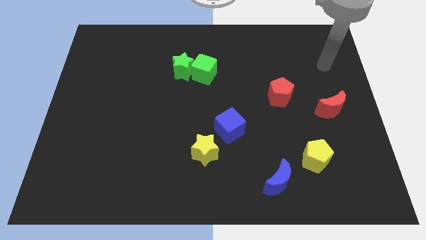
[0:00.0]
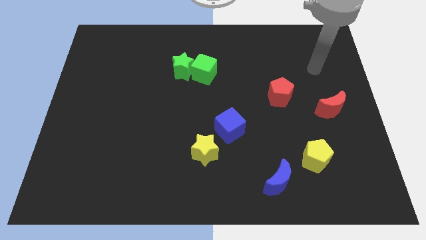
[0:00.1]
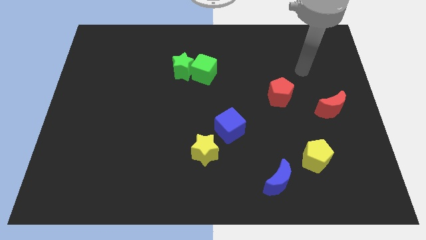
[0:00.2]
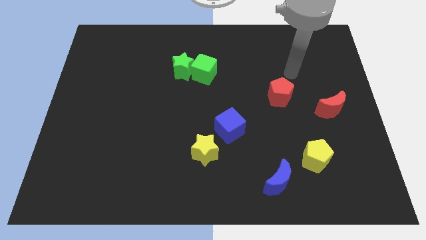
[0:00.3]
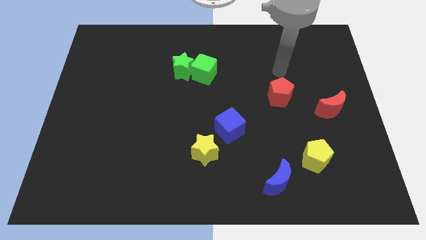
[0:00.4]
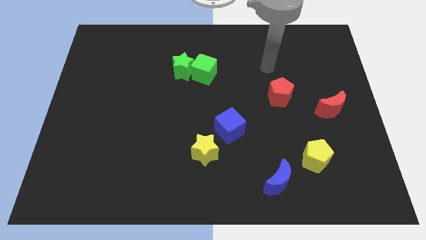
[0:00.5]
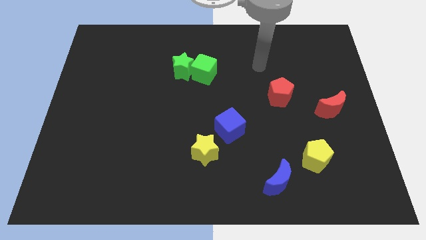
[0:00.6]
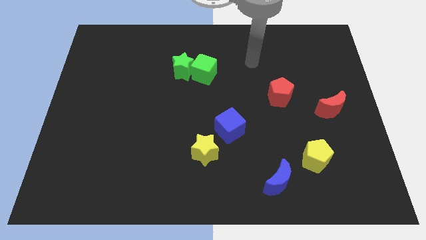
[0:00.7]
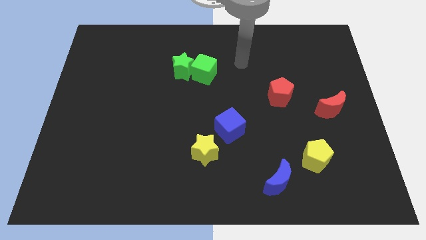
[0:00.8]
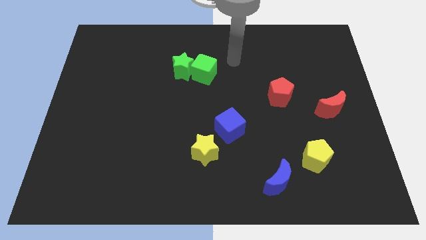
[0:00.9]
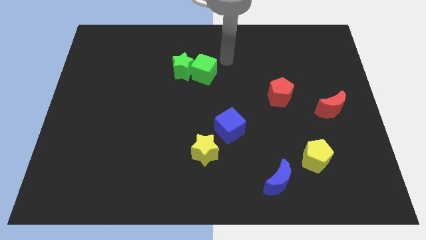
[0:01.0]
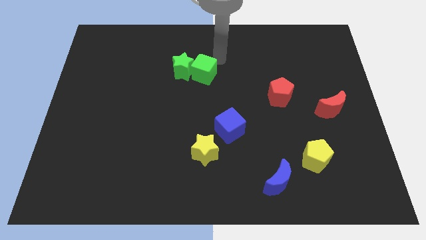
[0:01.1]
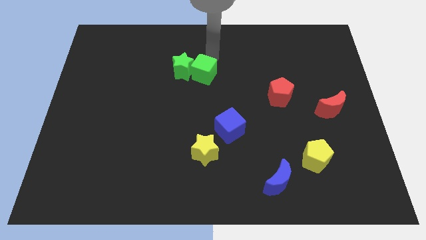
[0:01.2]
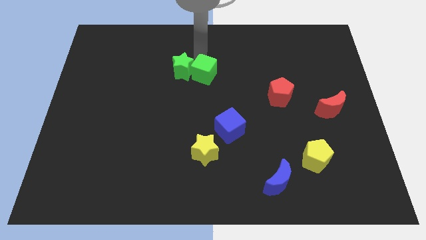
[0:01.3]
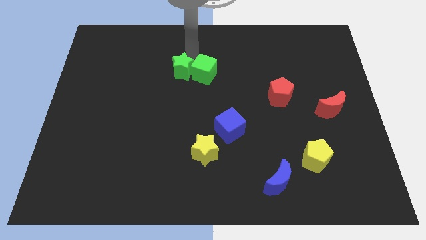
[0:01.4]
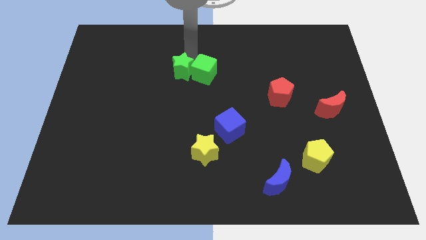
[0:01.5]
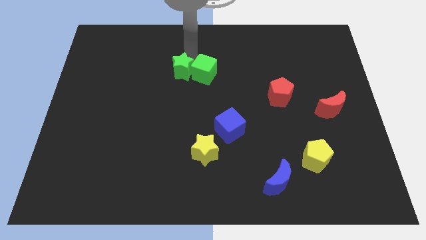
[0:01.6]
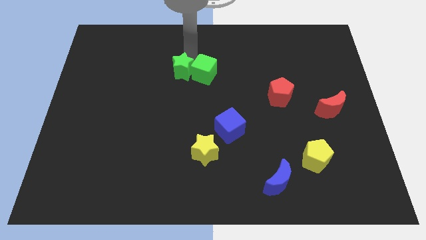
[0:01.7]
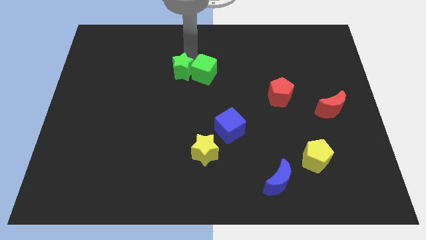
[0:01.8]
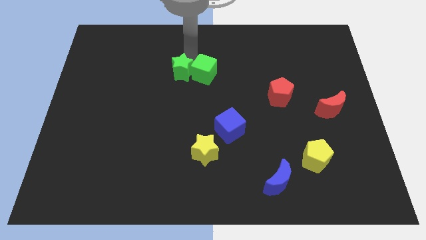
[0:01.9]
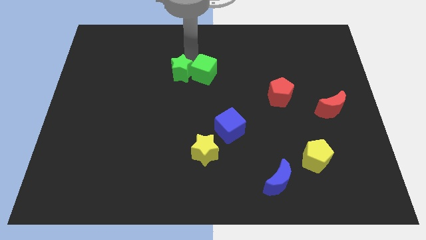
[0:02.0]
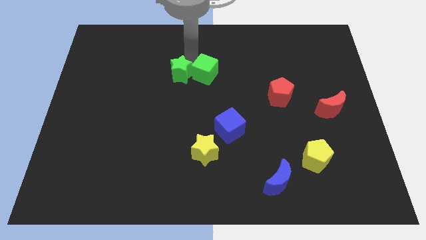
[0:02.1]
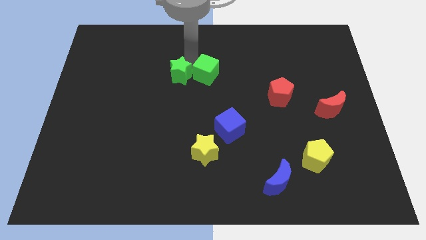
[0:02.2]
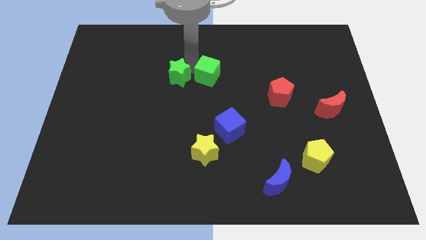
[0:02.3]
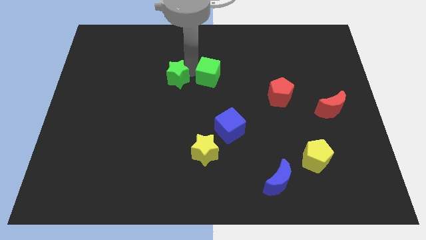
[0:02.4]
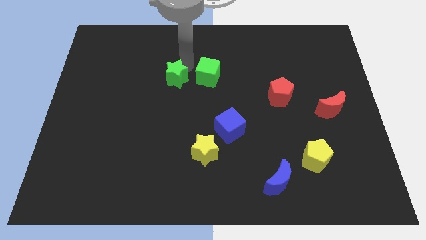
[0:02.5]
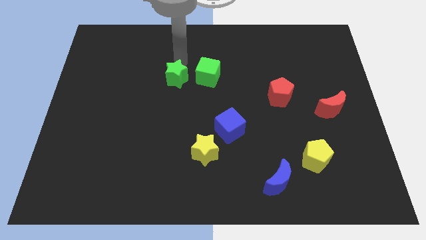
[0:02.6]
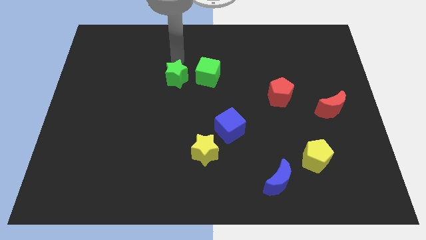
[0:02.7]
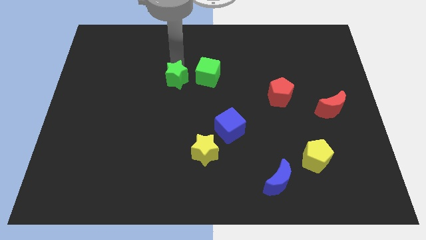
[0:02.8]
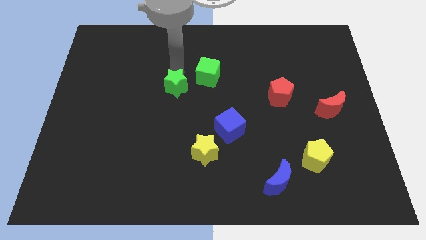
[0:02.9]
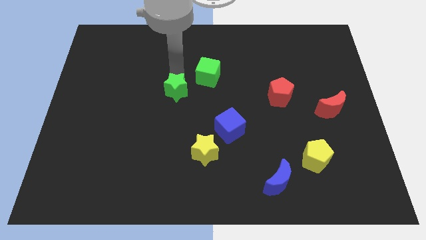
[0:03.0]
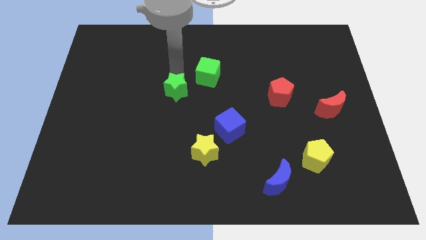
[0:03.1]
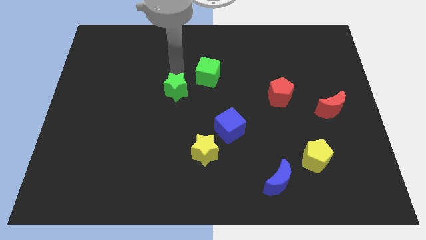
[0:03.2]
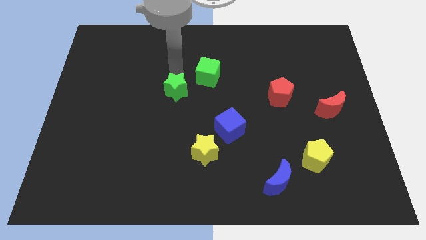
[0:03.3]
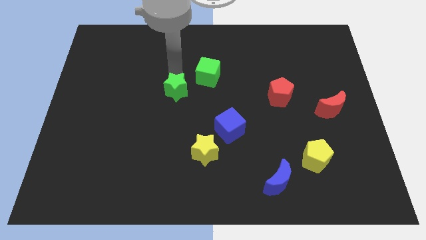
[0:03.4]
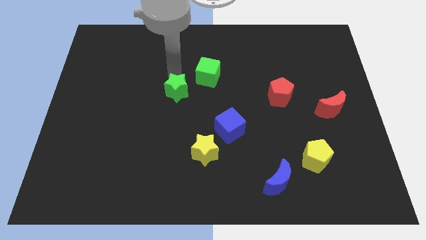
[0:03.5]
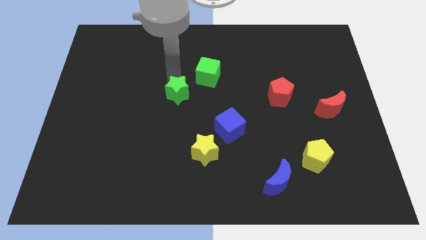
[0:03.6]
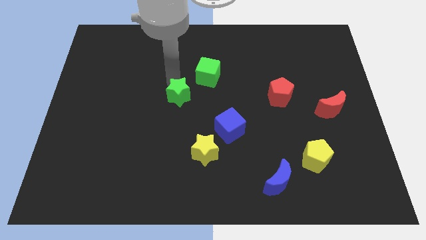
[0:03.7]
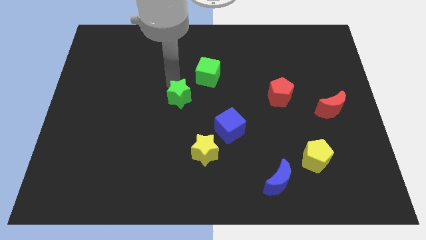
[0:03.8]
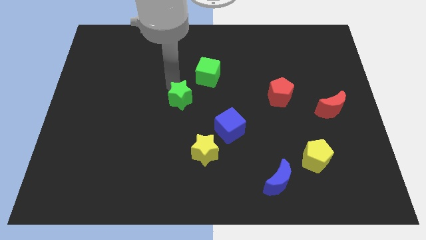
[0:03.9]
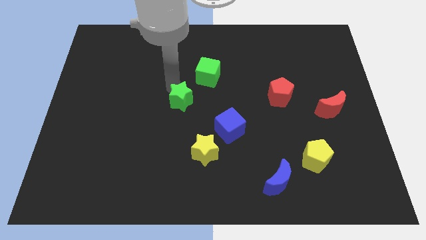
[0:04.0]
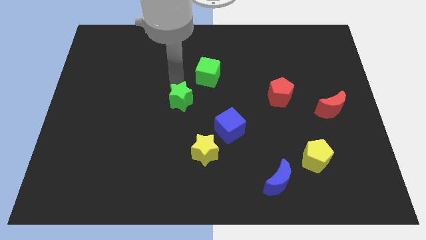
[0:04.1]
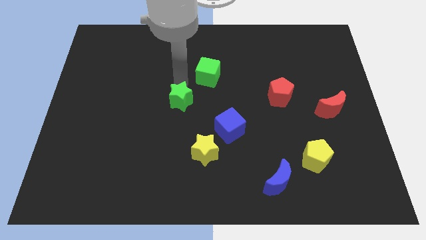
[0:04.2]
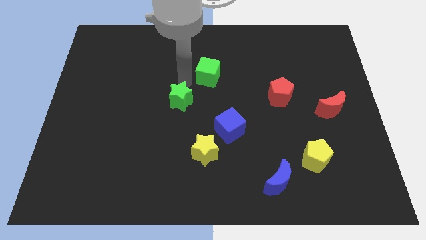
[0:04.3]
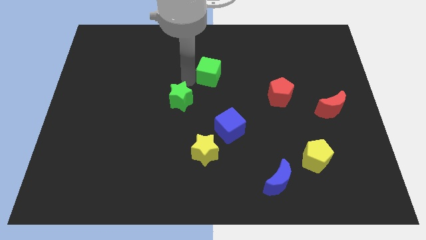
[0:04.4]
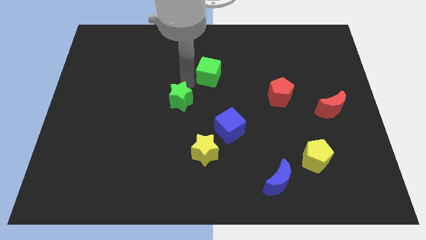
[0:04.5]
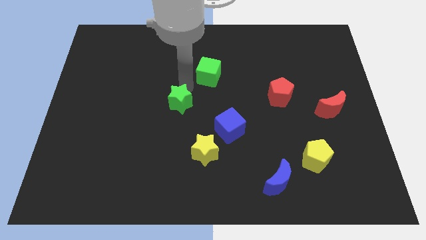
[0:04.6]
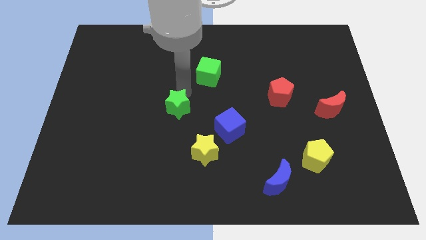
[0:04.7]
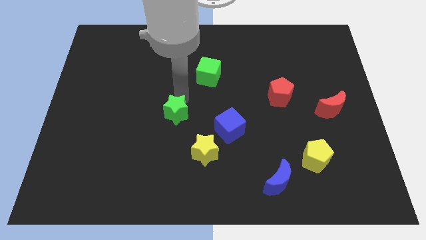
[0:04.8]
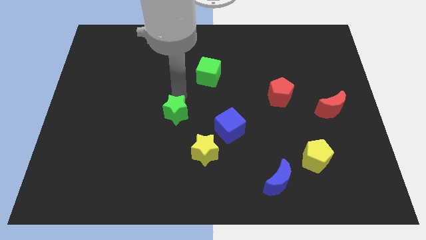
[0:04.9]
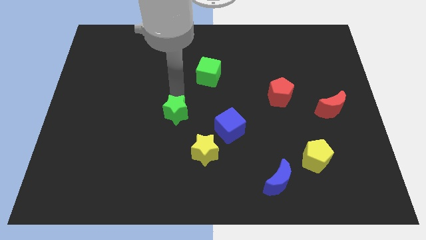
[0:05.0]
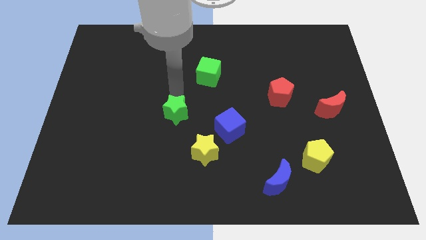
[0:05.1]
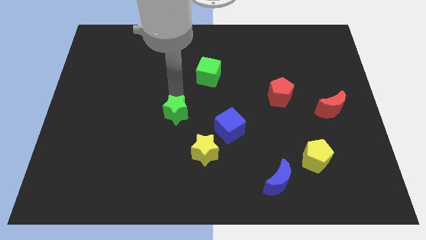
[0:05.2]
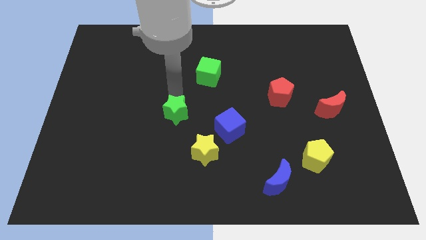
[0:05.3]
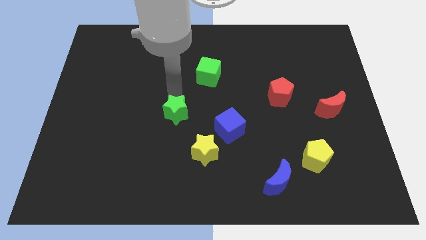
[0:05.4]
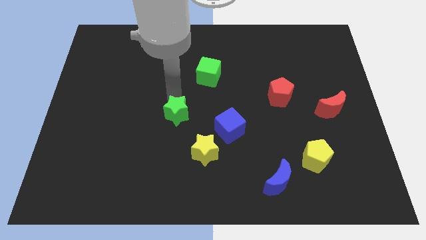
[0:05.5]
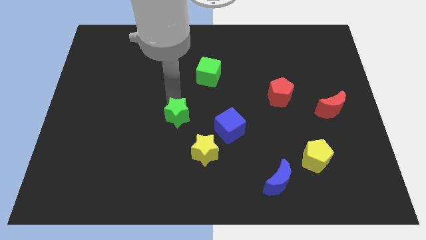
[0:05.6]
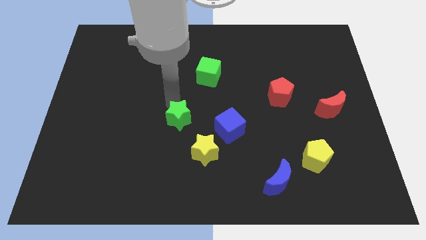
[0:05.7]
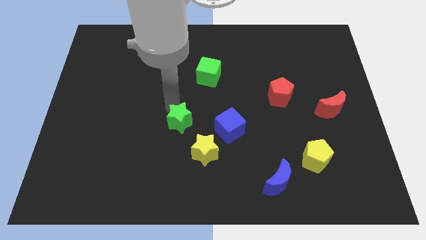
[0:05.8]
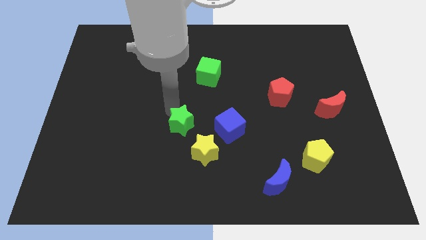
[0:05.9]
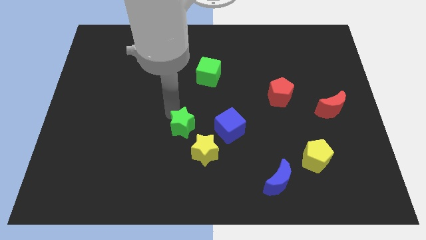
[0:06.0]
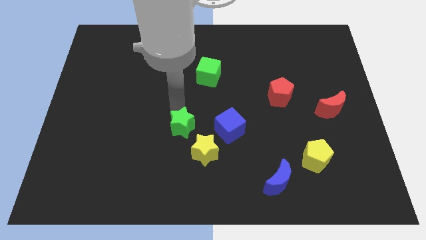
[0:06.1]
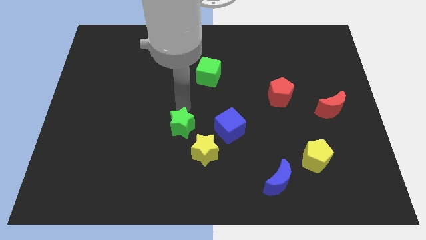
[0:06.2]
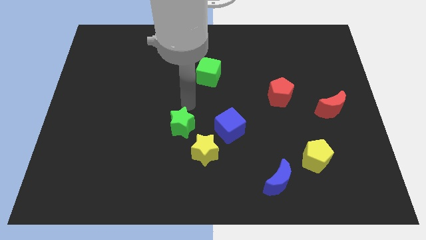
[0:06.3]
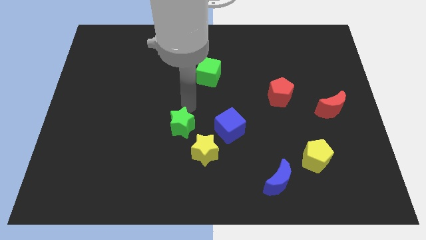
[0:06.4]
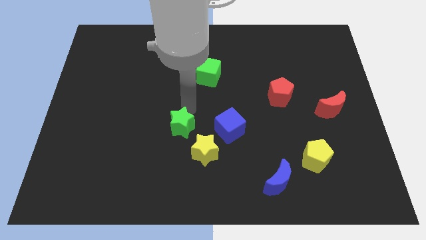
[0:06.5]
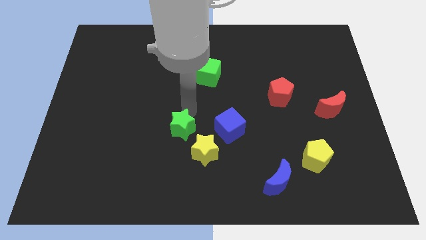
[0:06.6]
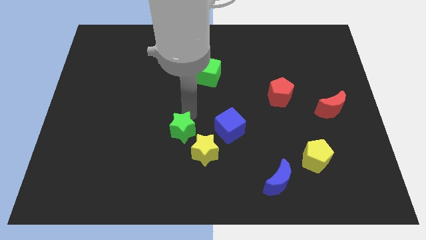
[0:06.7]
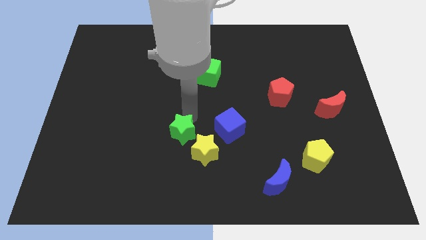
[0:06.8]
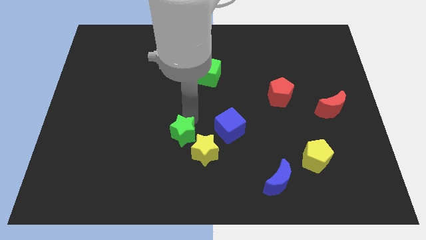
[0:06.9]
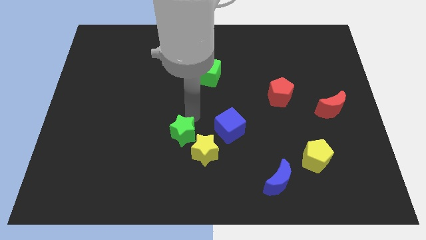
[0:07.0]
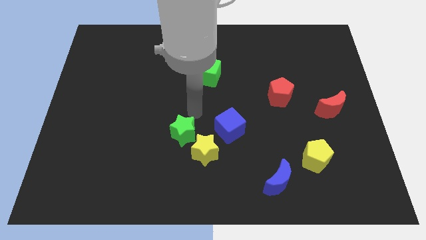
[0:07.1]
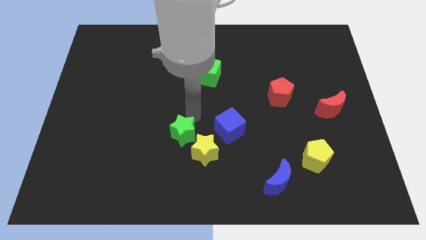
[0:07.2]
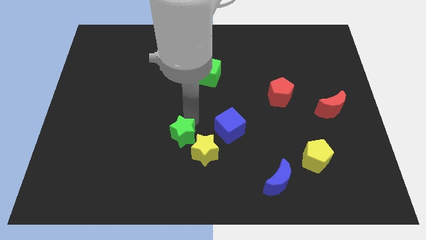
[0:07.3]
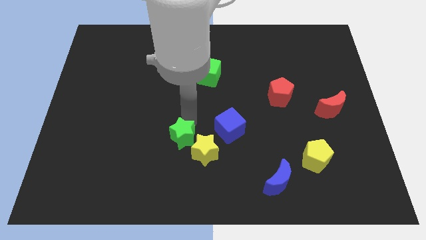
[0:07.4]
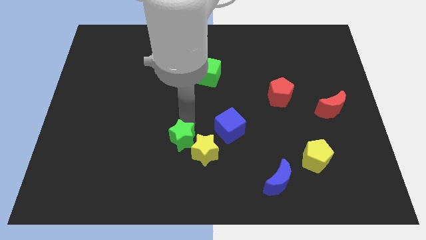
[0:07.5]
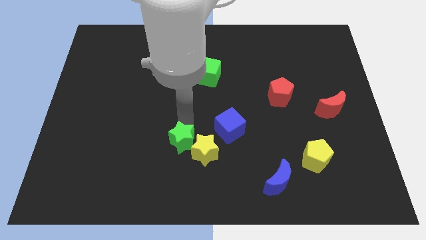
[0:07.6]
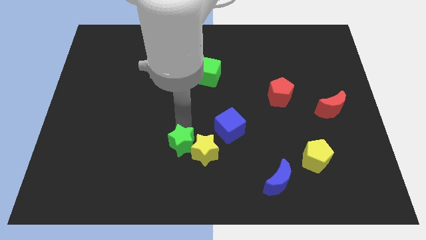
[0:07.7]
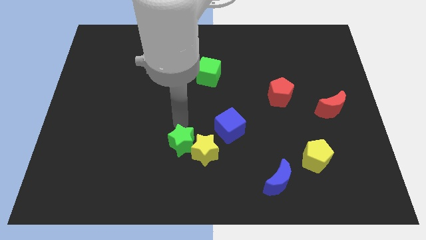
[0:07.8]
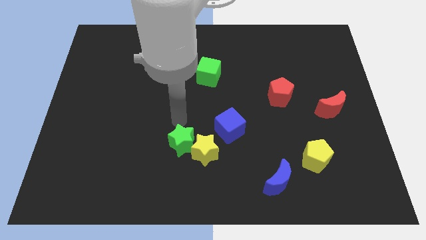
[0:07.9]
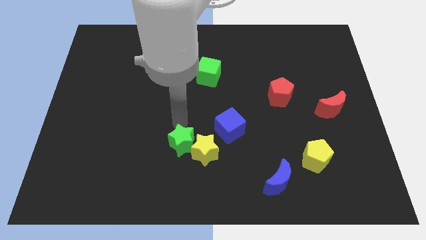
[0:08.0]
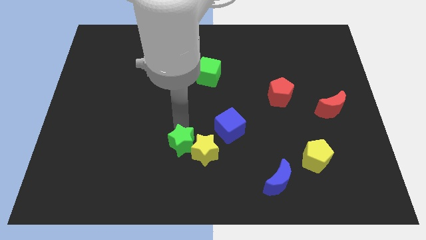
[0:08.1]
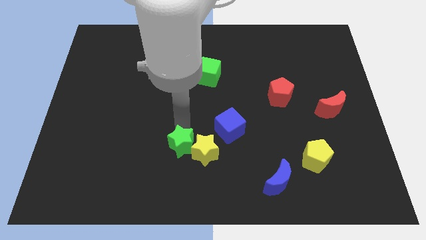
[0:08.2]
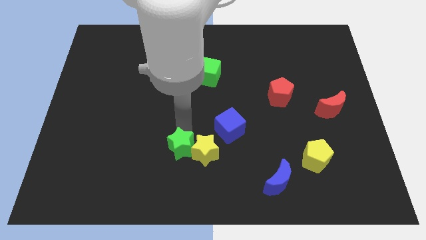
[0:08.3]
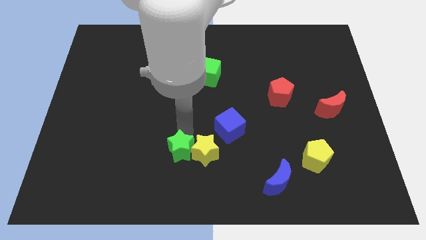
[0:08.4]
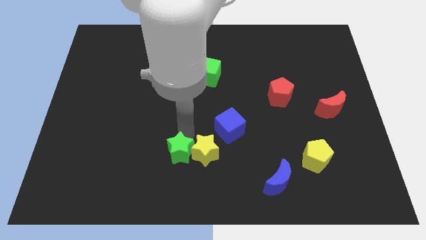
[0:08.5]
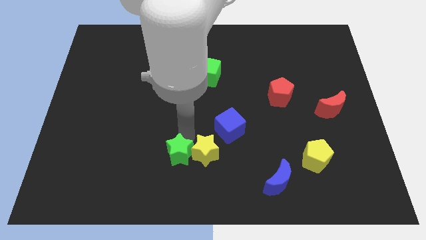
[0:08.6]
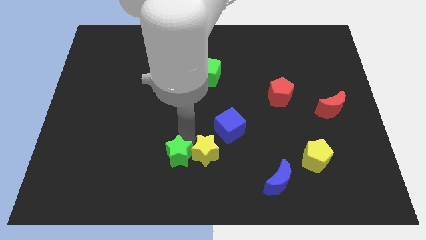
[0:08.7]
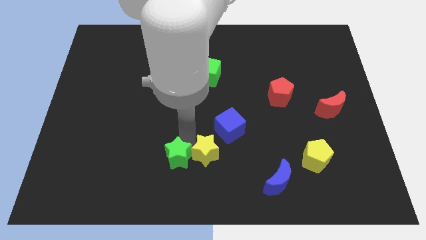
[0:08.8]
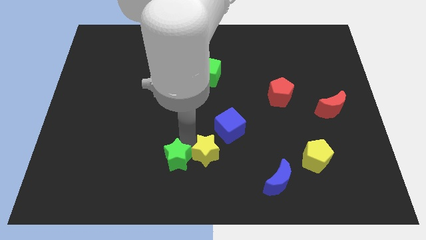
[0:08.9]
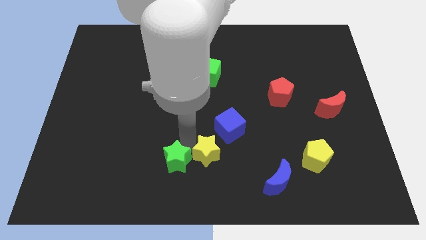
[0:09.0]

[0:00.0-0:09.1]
put the green star to the bottom side
